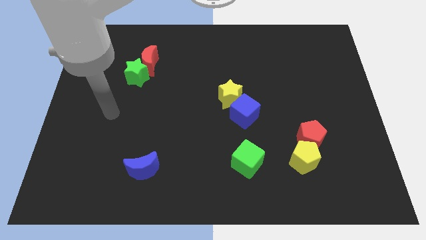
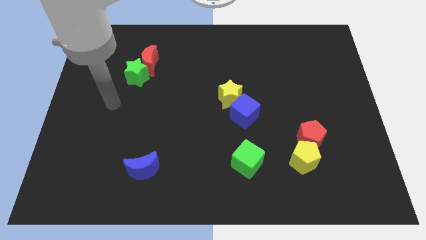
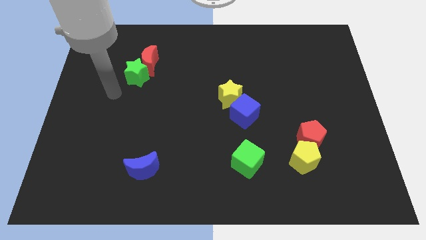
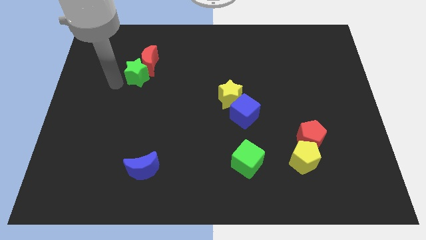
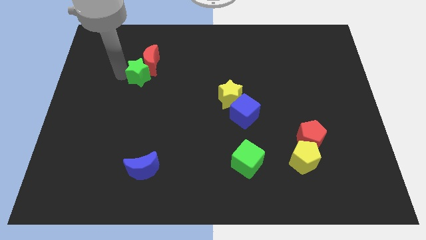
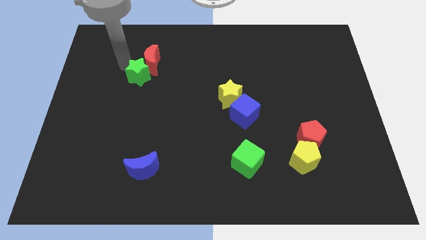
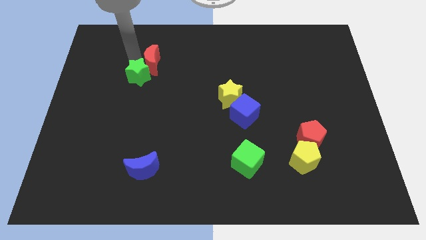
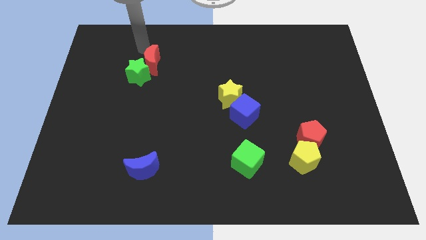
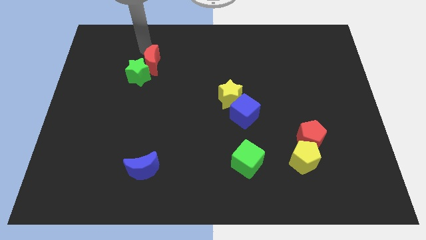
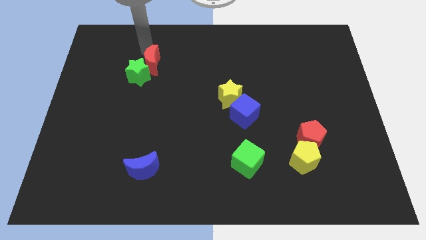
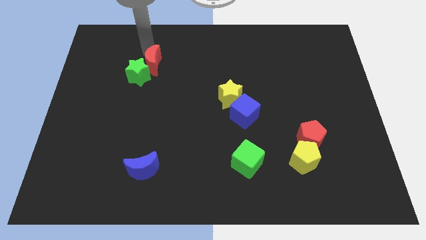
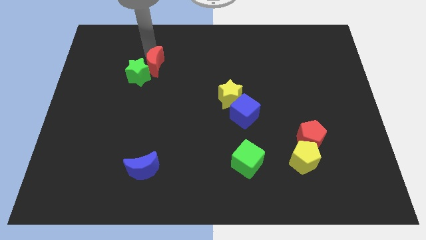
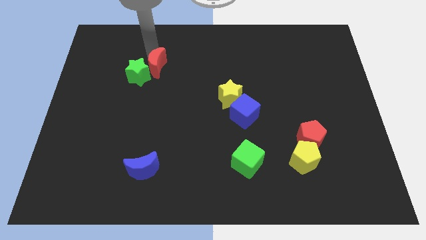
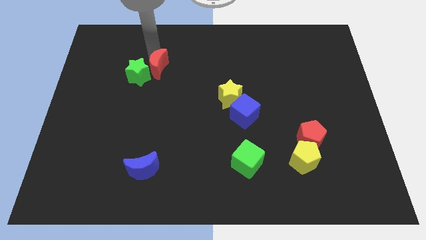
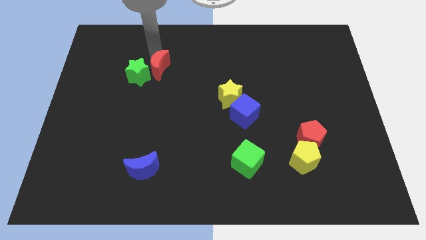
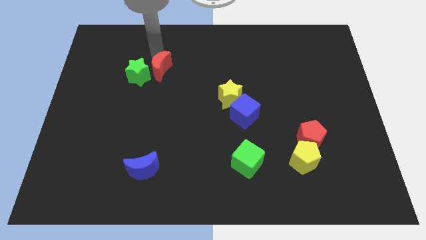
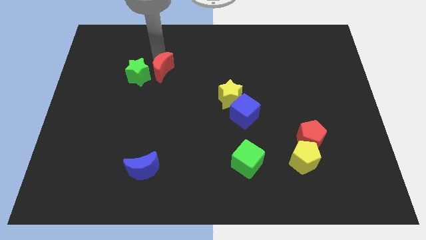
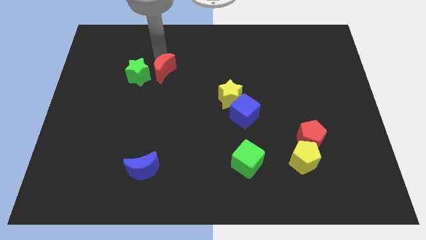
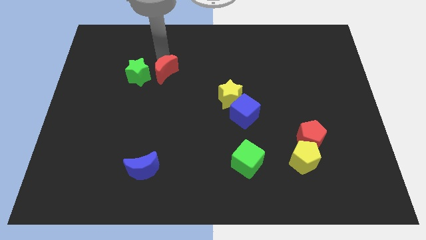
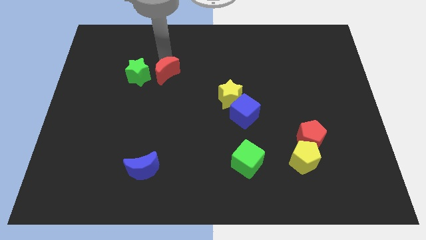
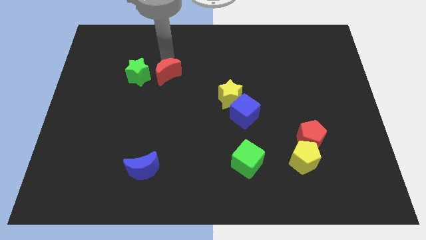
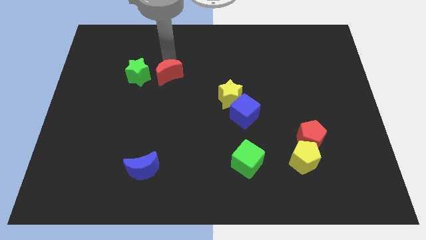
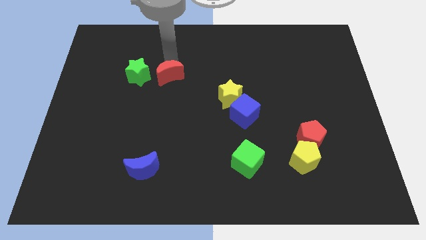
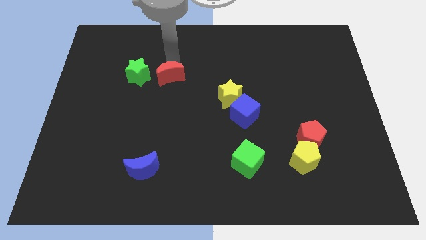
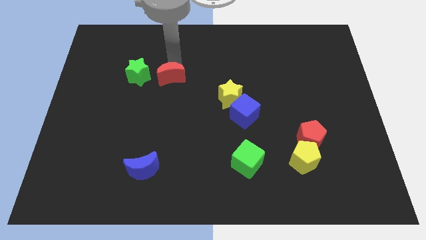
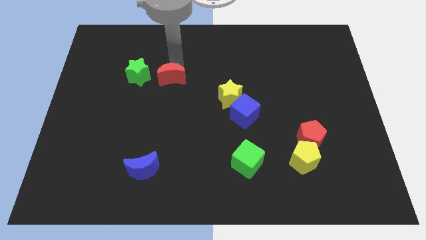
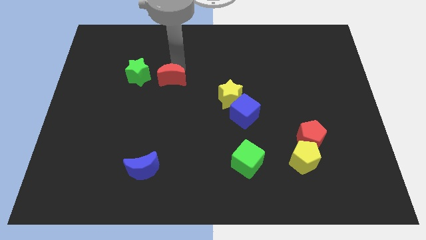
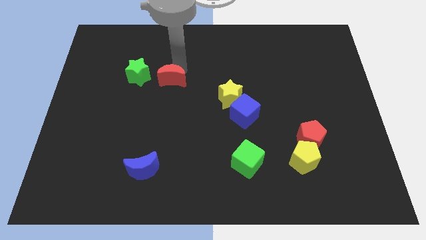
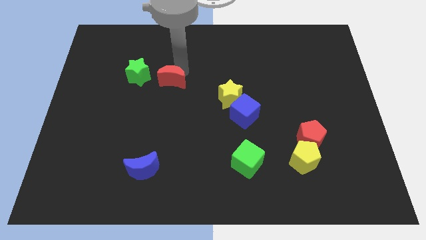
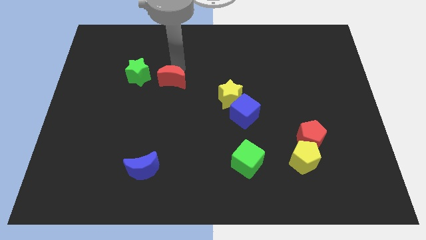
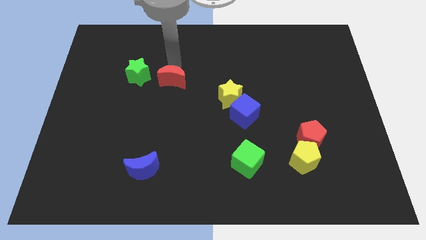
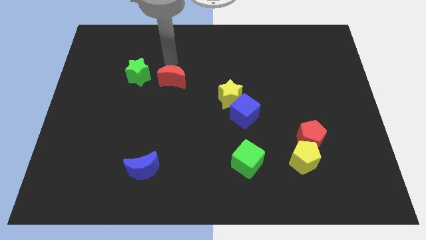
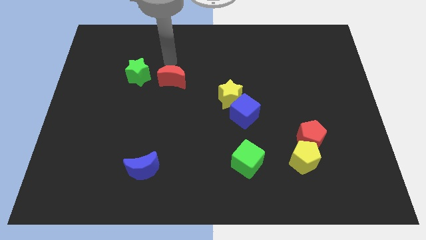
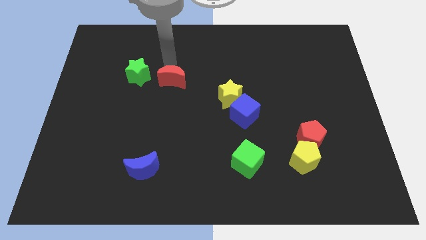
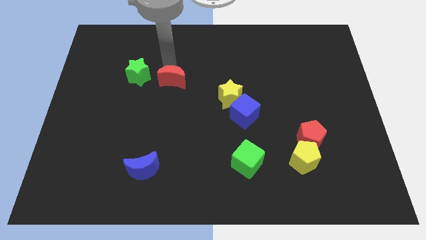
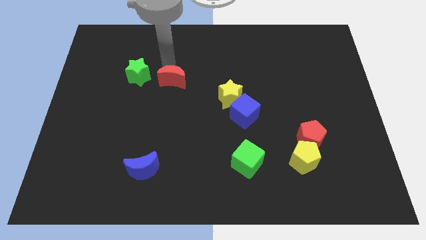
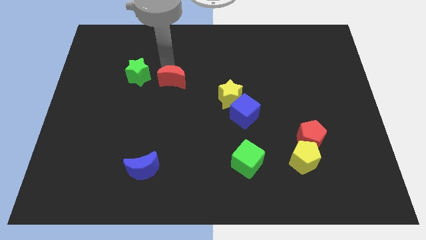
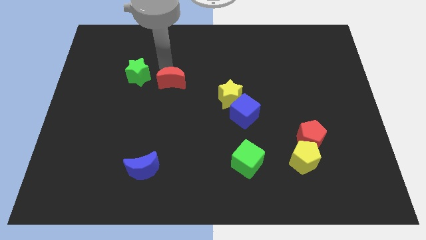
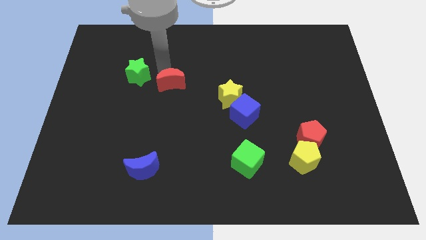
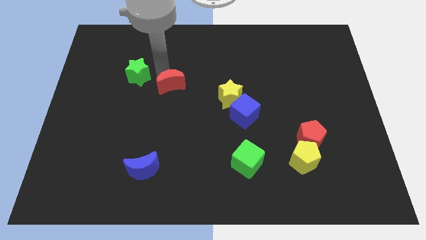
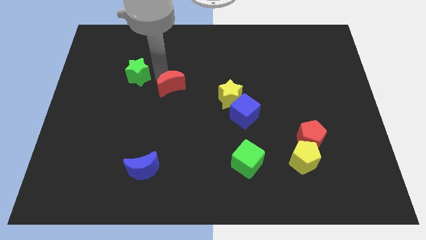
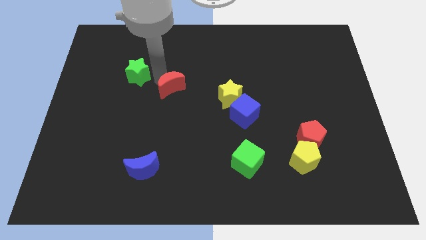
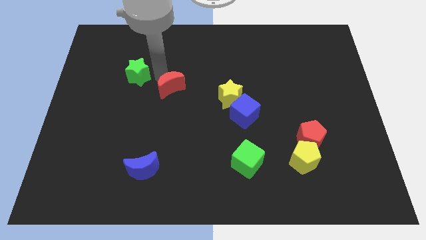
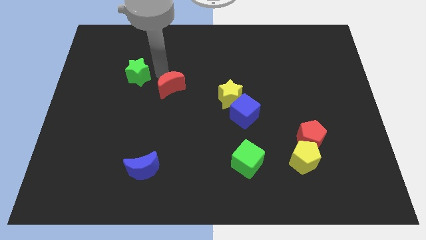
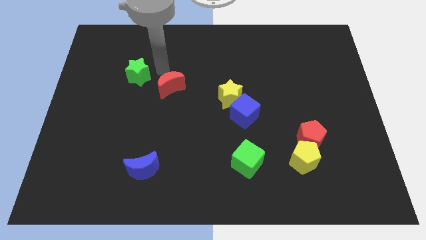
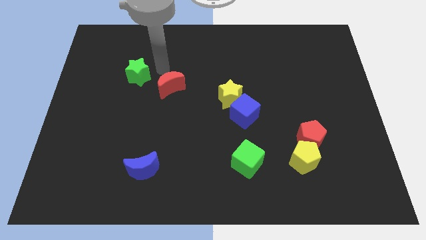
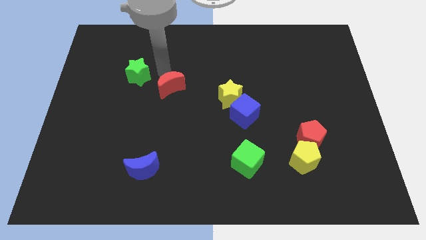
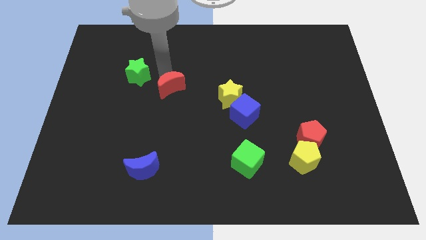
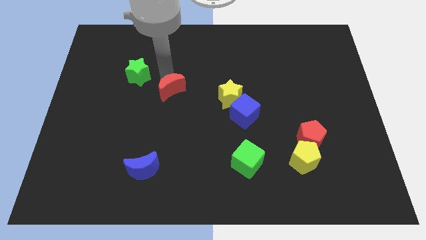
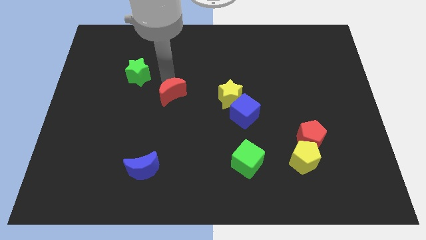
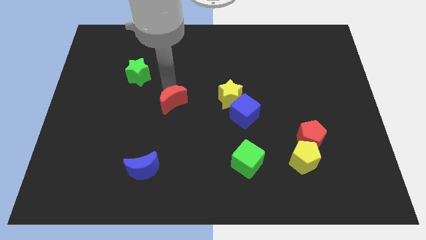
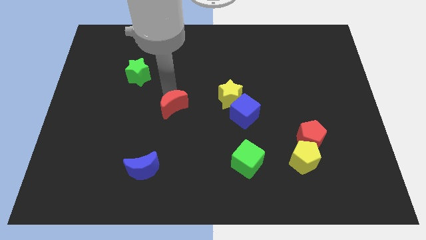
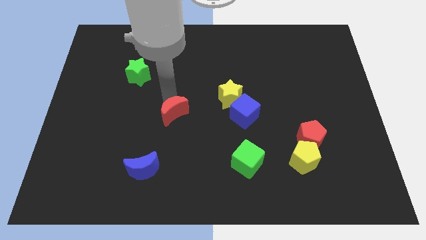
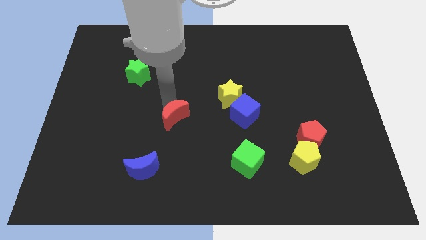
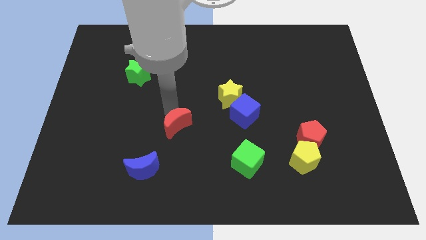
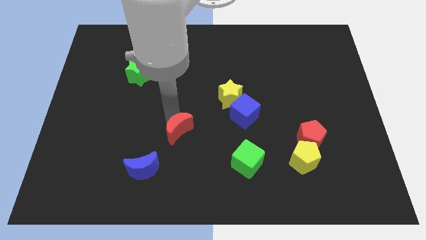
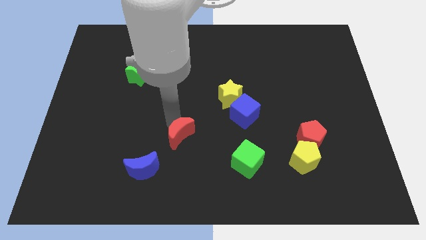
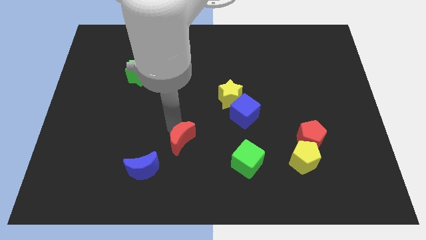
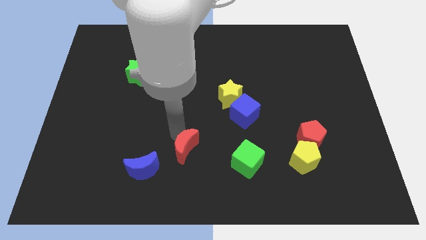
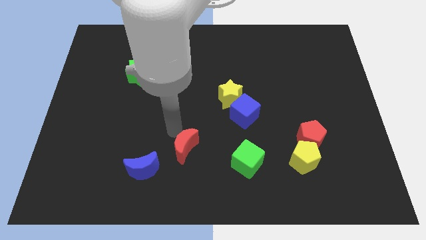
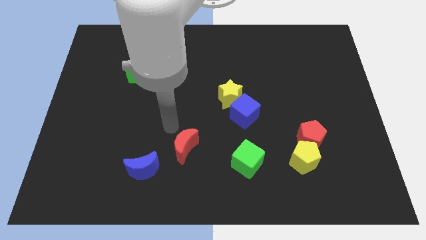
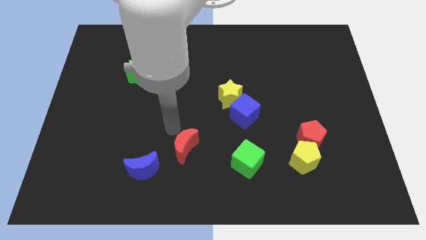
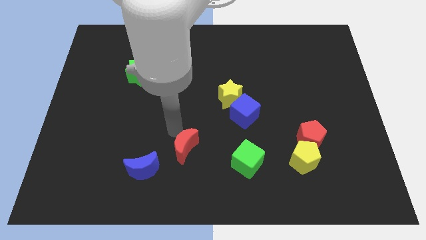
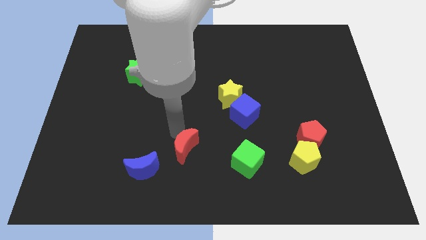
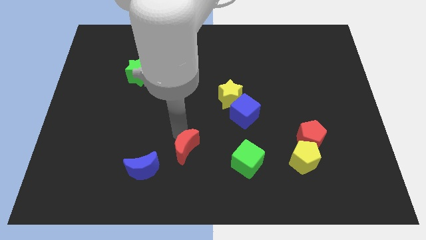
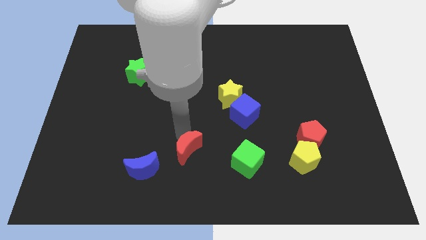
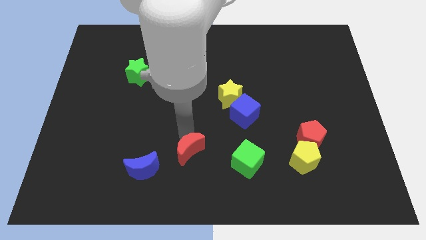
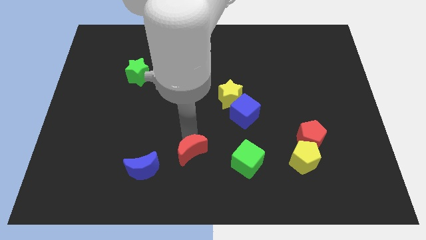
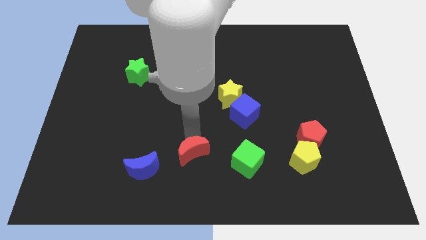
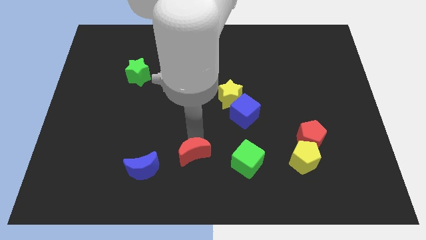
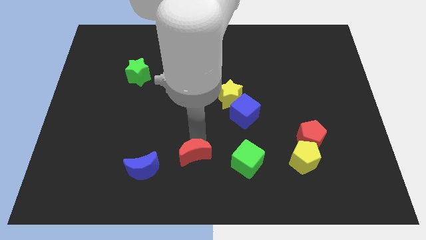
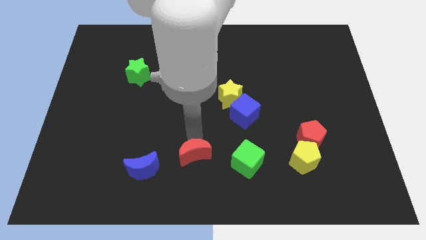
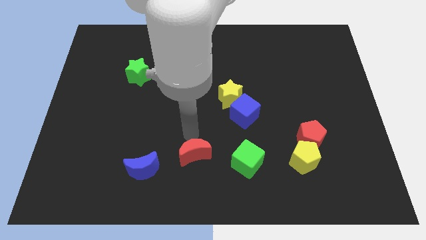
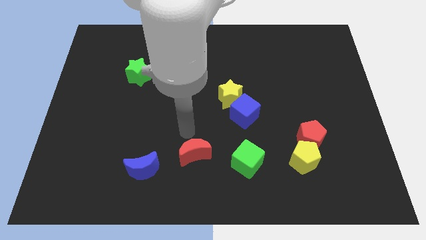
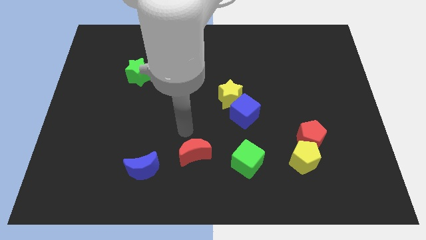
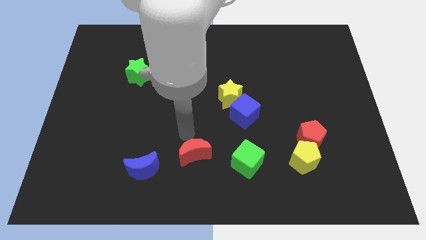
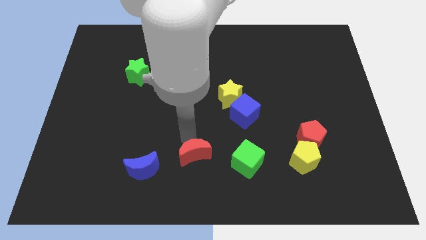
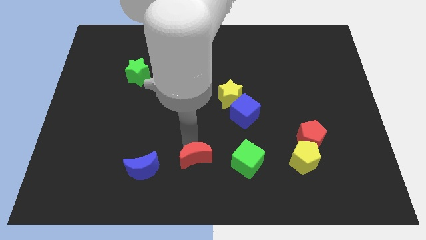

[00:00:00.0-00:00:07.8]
slide the red moon to the bottom side
